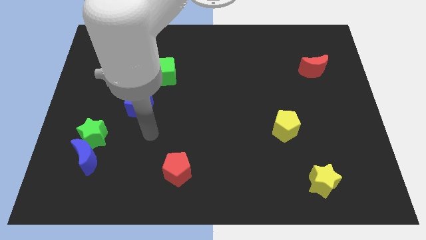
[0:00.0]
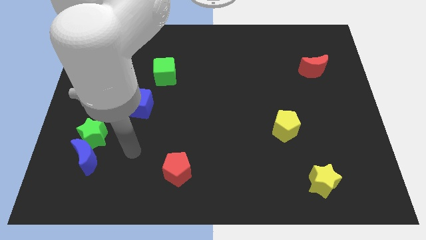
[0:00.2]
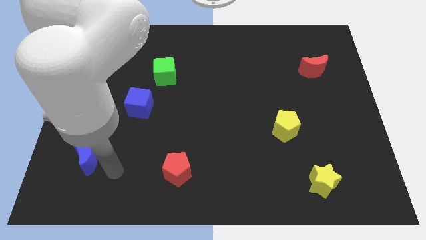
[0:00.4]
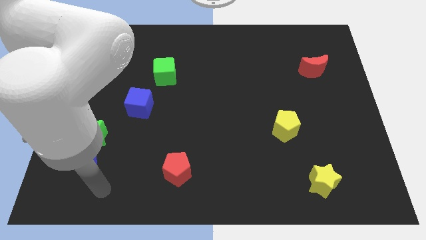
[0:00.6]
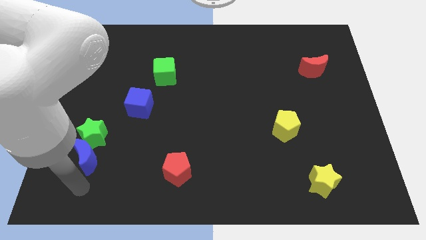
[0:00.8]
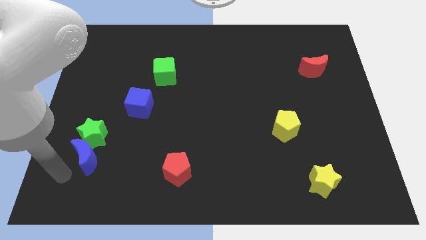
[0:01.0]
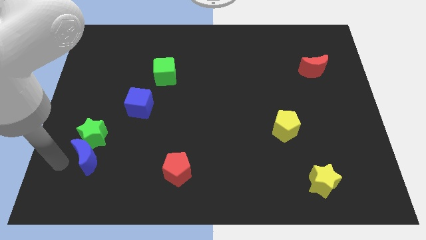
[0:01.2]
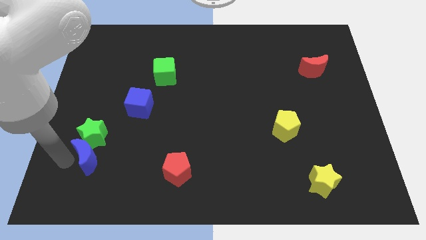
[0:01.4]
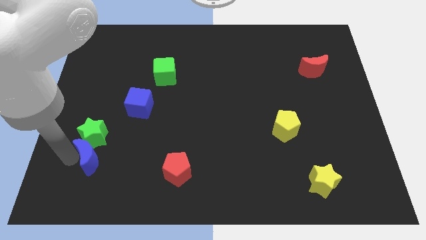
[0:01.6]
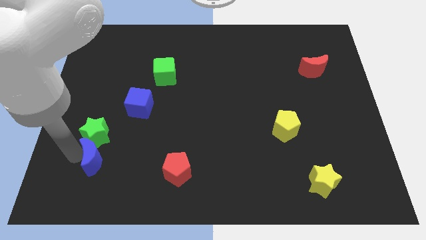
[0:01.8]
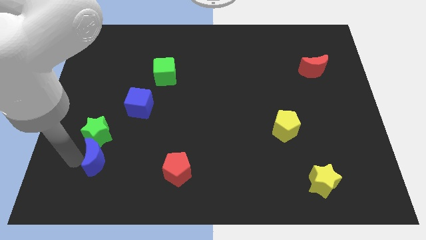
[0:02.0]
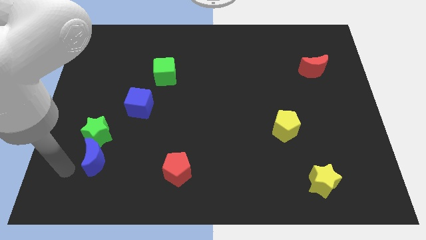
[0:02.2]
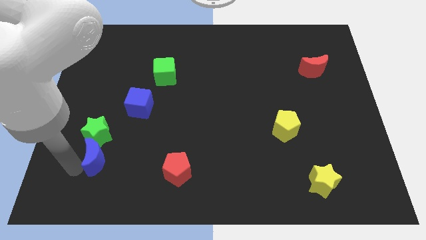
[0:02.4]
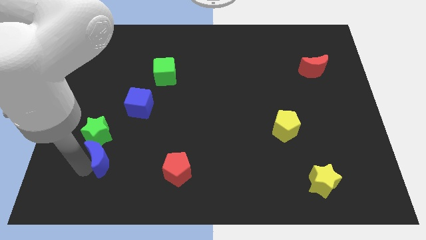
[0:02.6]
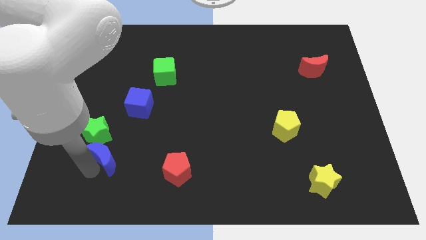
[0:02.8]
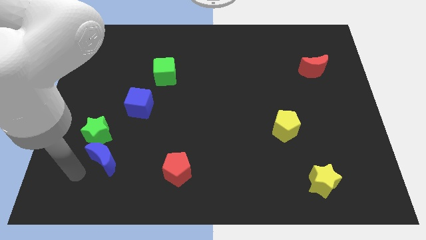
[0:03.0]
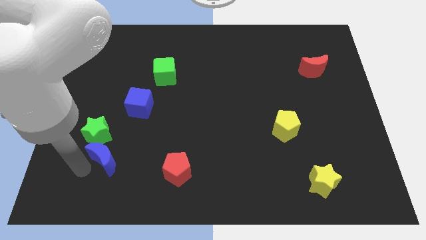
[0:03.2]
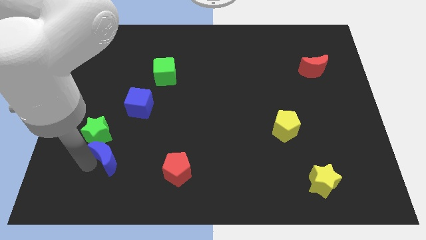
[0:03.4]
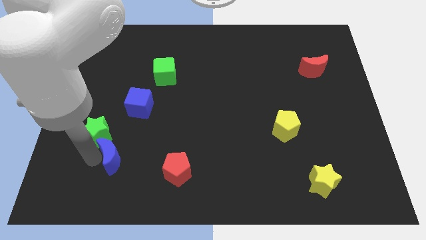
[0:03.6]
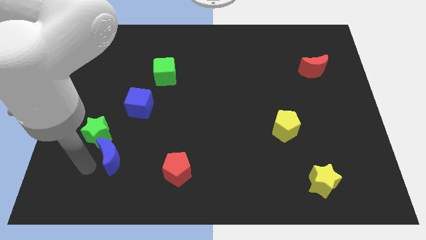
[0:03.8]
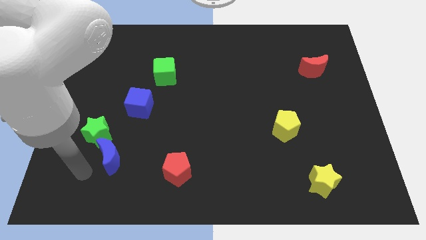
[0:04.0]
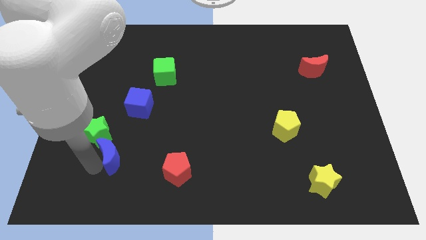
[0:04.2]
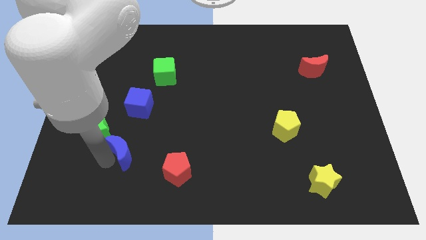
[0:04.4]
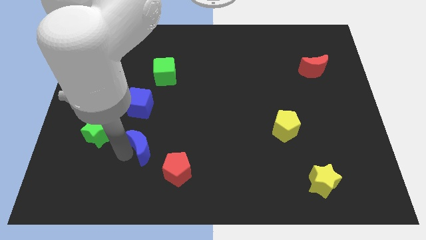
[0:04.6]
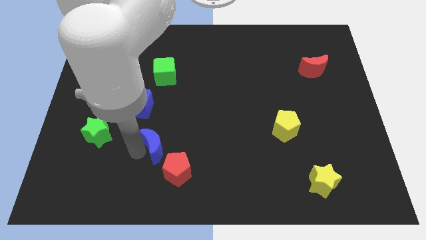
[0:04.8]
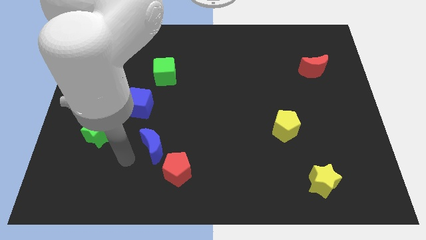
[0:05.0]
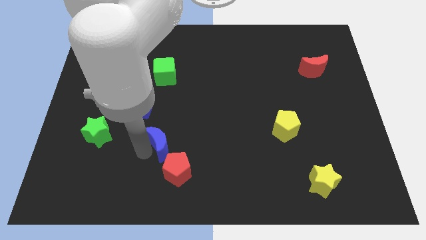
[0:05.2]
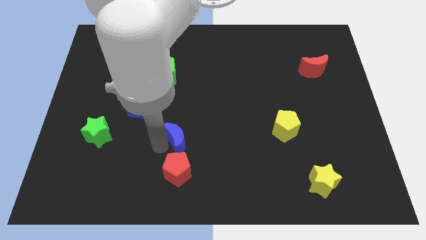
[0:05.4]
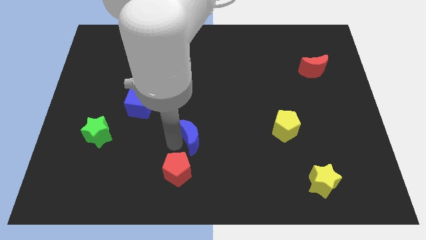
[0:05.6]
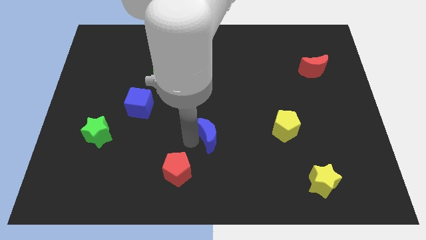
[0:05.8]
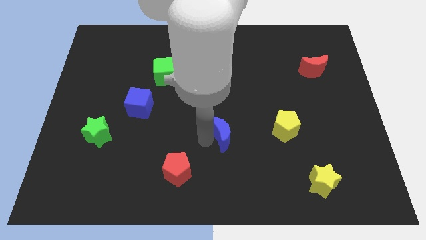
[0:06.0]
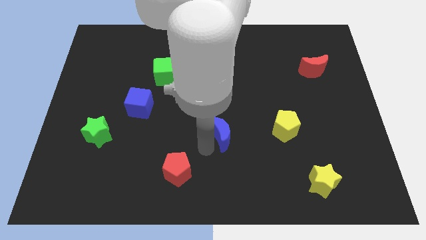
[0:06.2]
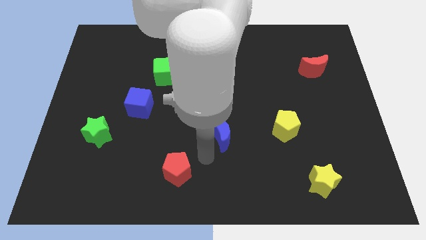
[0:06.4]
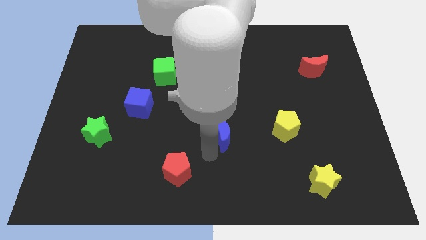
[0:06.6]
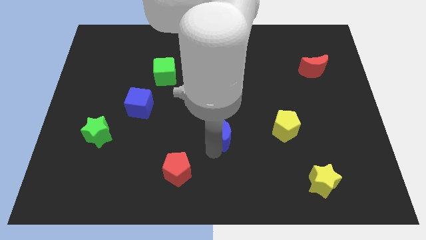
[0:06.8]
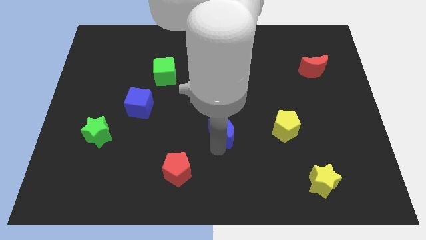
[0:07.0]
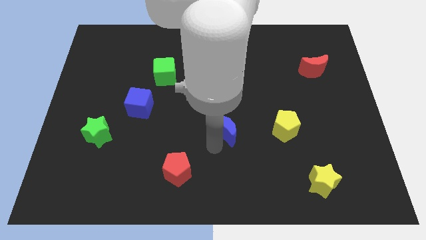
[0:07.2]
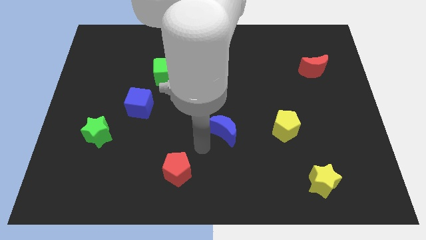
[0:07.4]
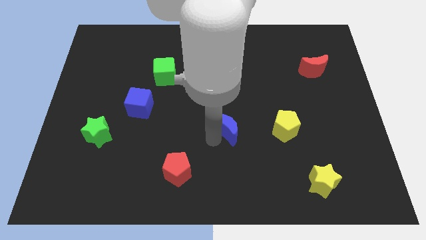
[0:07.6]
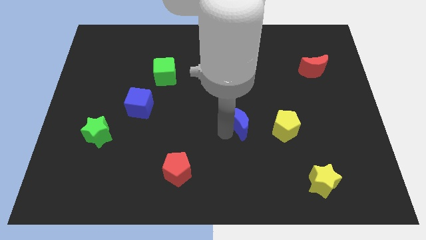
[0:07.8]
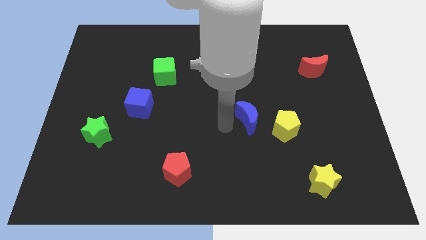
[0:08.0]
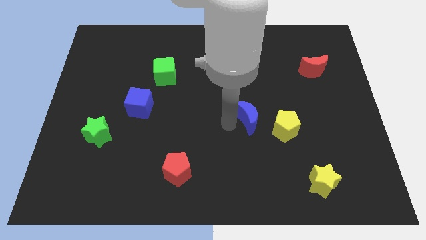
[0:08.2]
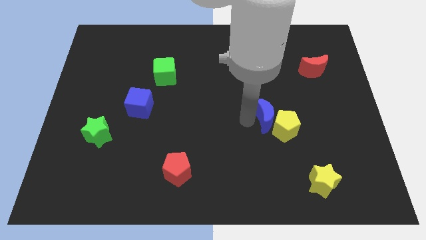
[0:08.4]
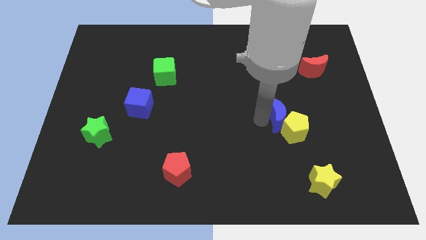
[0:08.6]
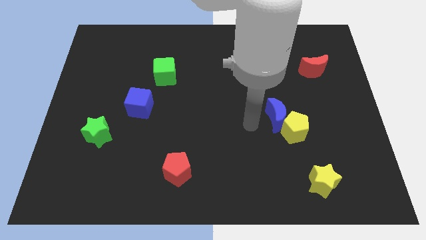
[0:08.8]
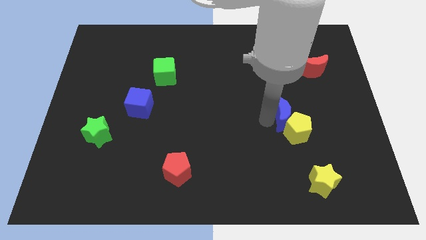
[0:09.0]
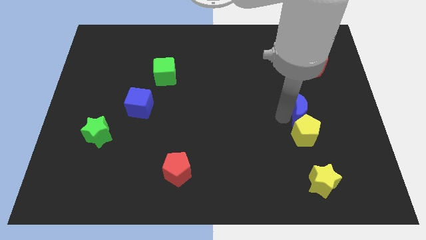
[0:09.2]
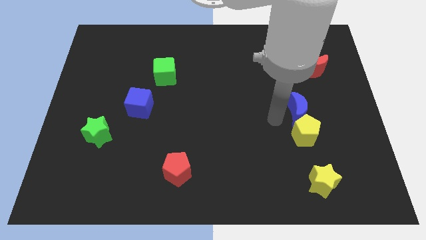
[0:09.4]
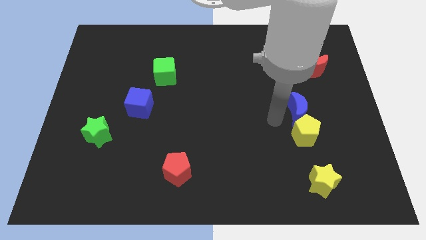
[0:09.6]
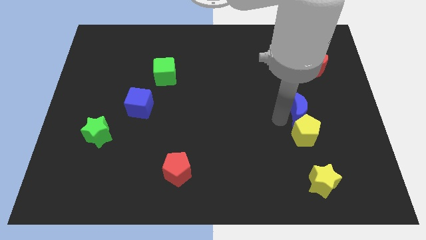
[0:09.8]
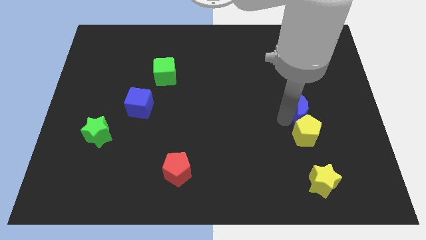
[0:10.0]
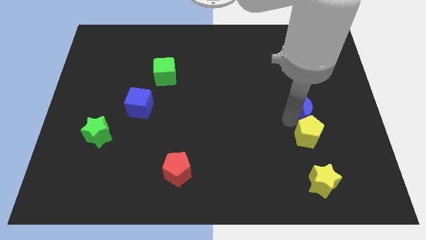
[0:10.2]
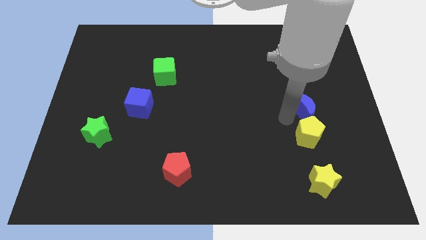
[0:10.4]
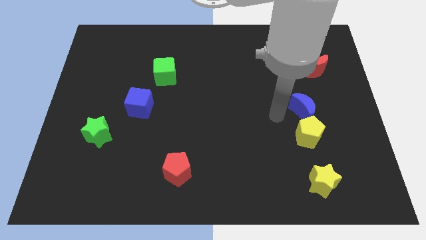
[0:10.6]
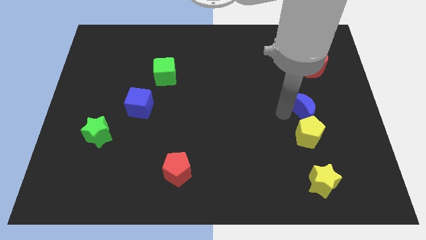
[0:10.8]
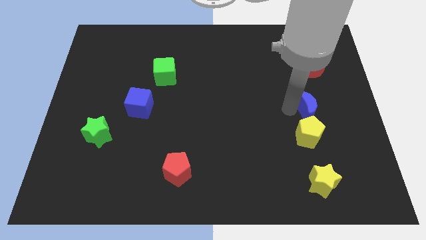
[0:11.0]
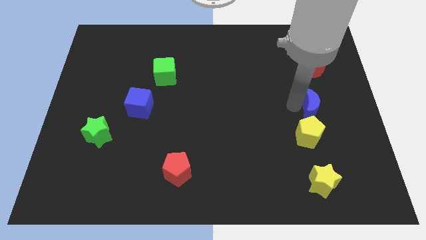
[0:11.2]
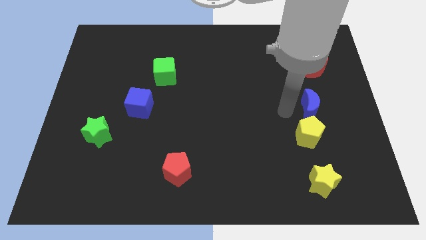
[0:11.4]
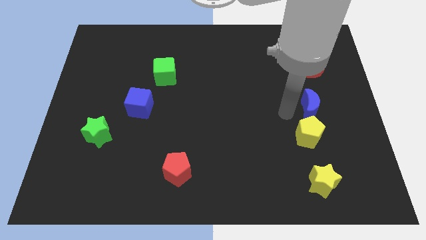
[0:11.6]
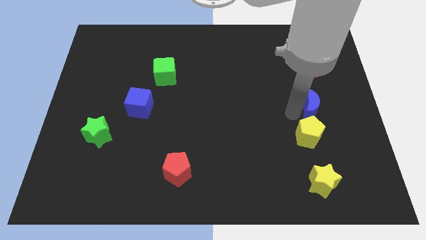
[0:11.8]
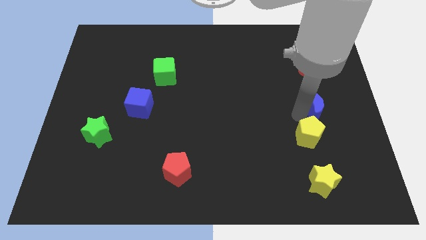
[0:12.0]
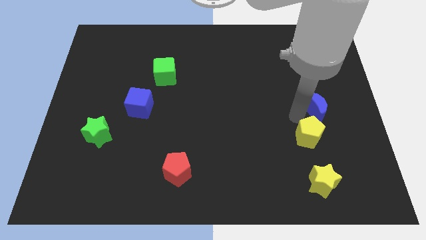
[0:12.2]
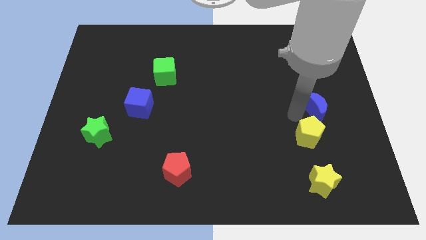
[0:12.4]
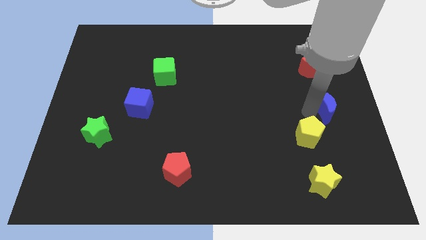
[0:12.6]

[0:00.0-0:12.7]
slide the blue moon to the right side of the board
